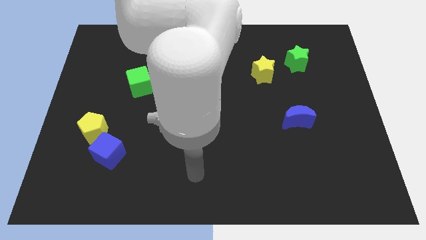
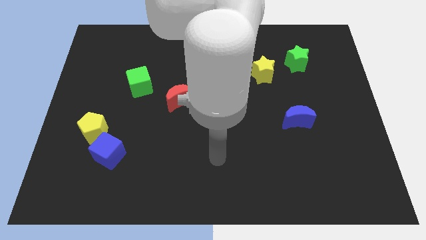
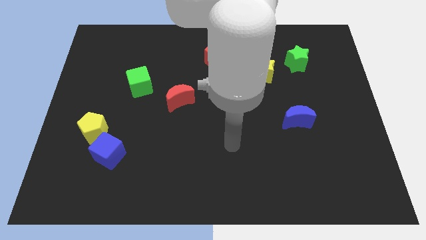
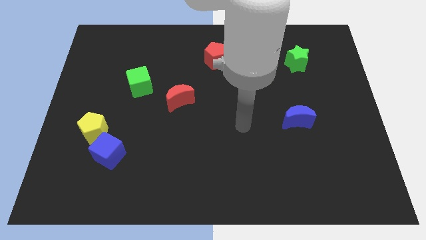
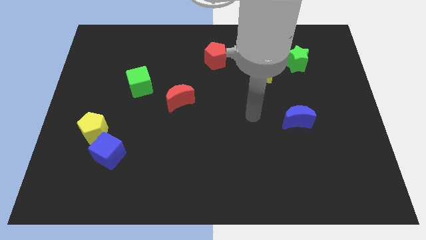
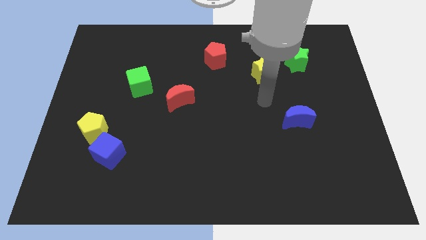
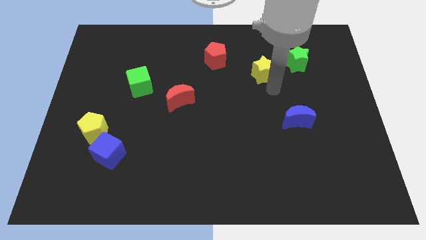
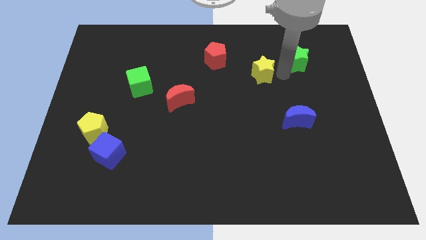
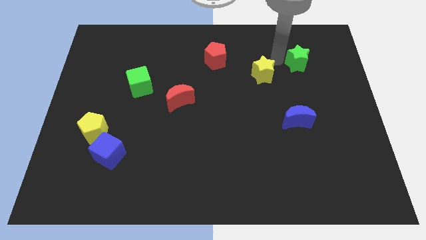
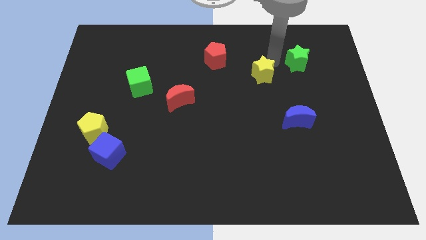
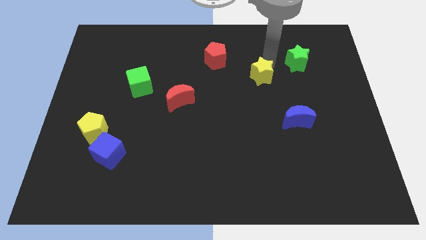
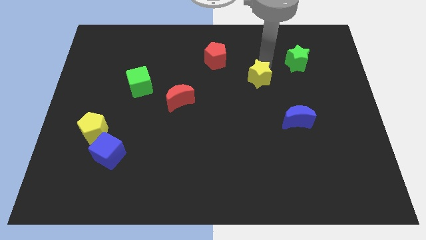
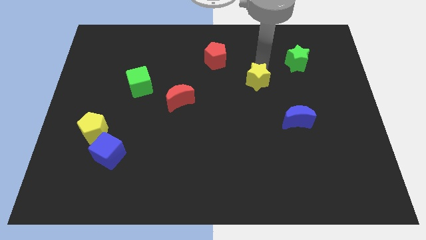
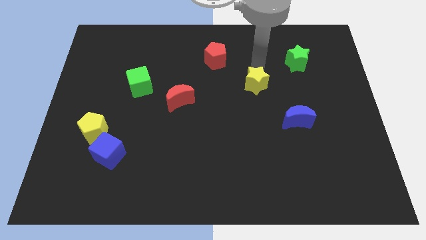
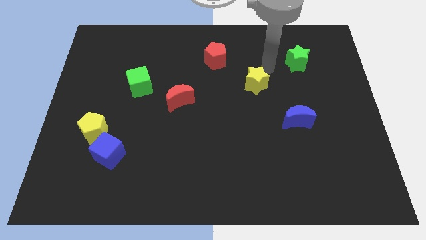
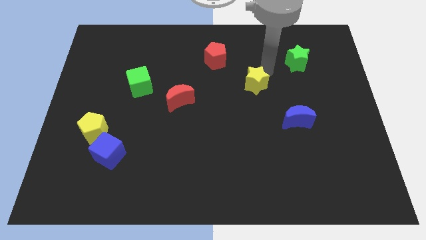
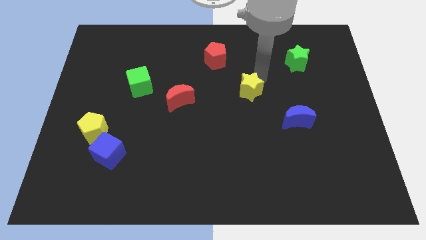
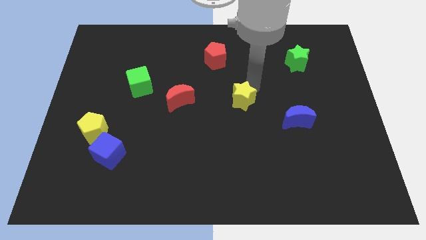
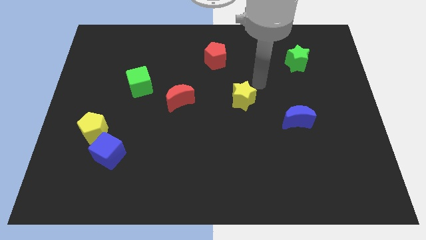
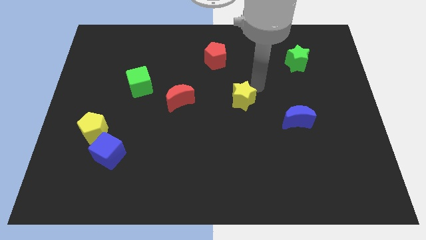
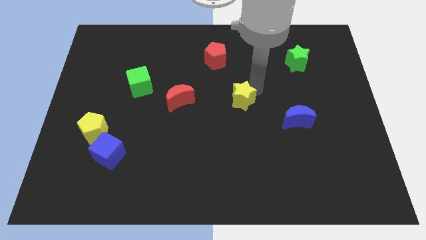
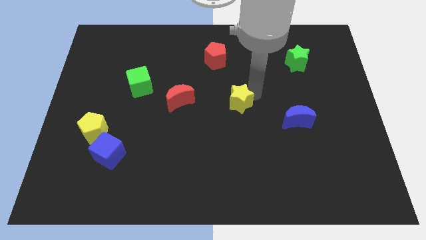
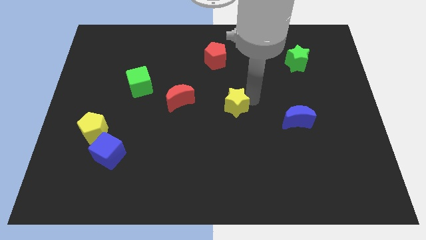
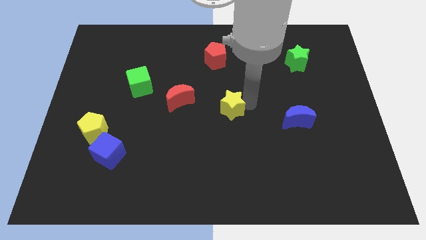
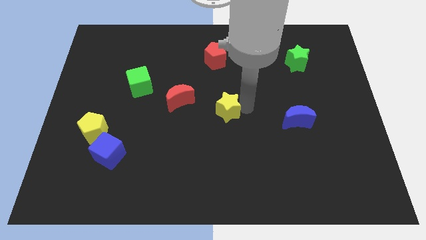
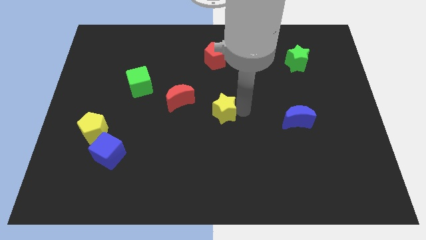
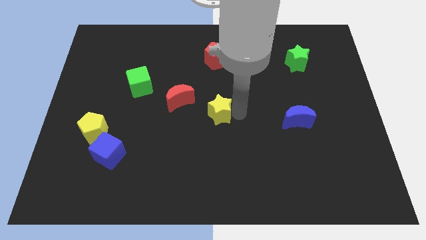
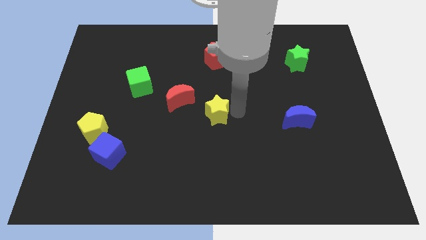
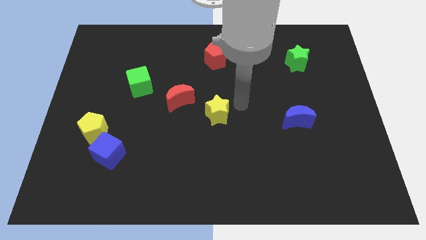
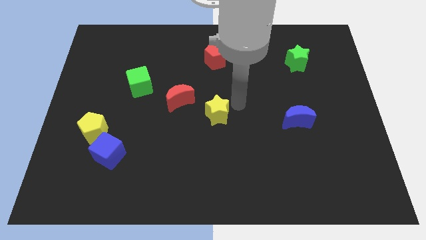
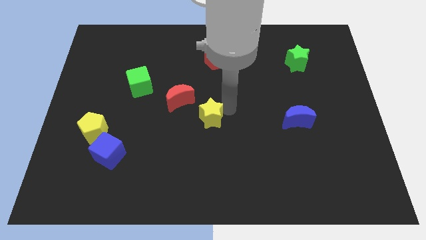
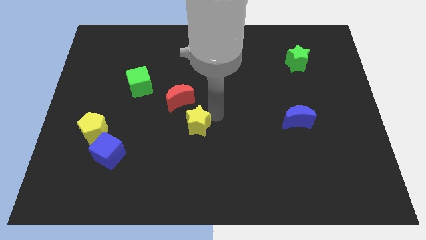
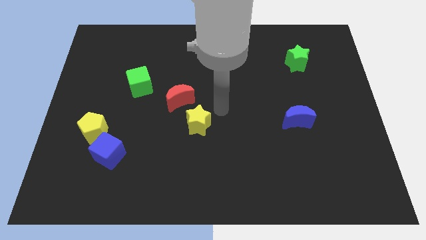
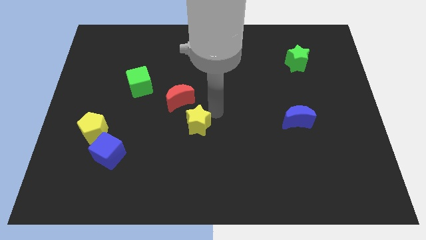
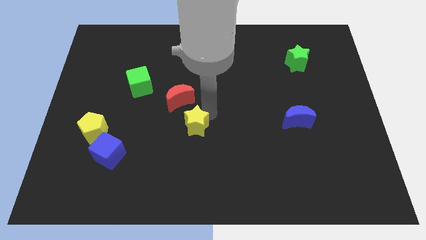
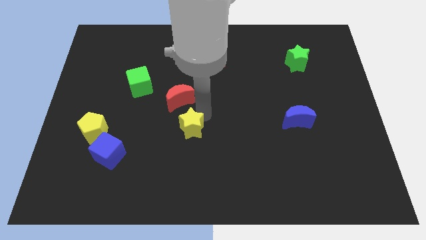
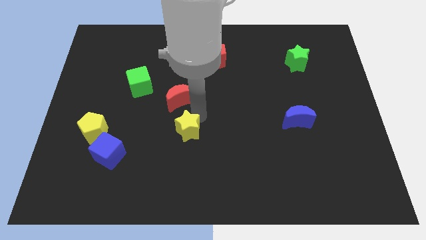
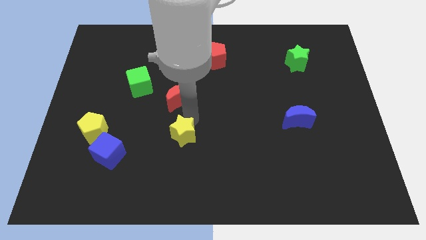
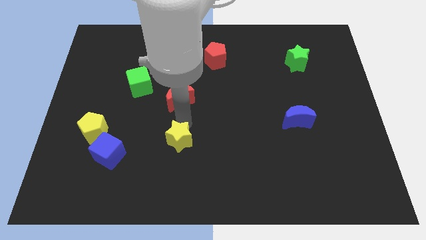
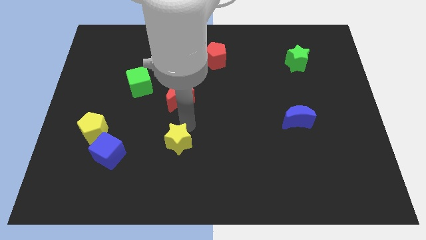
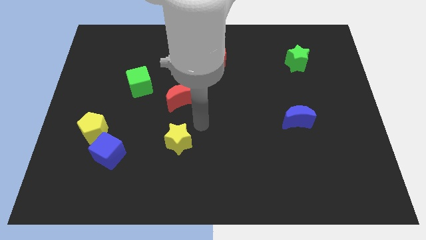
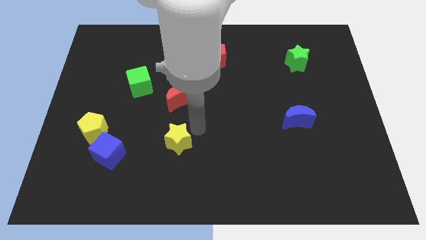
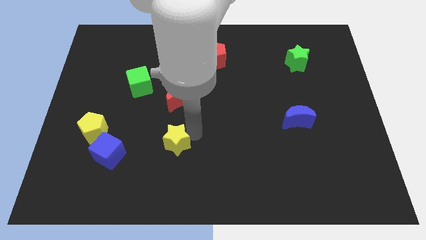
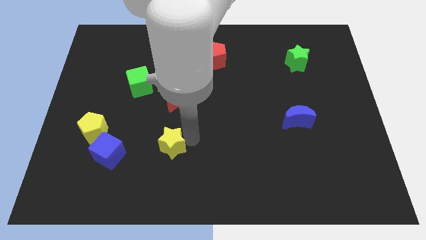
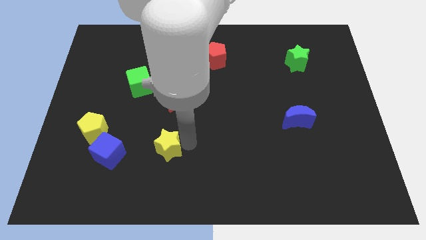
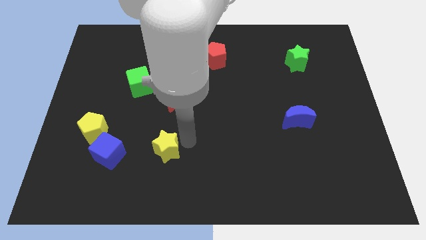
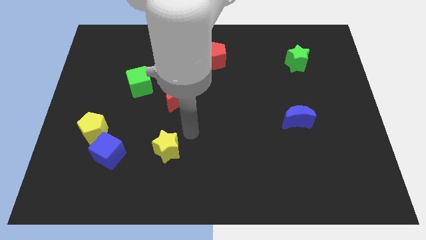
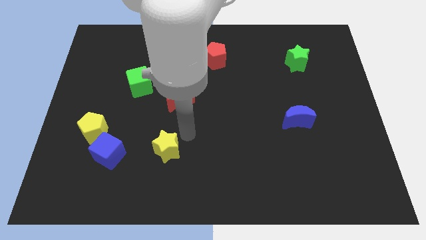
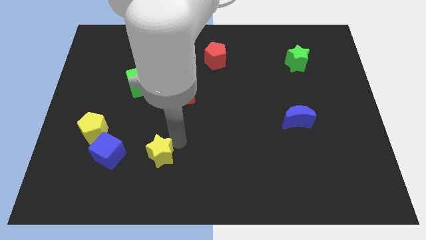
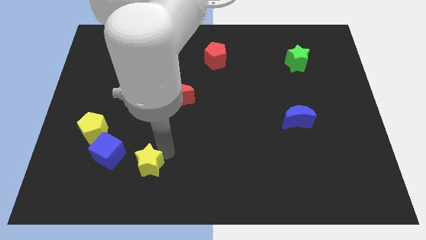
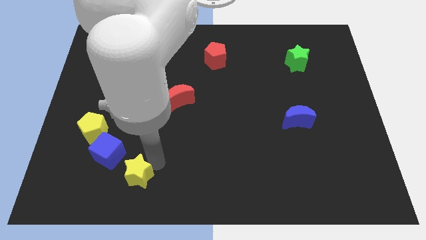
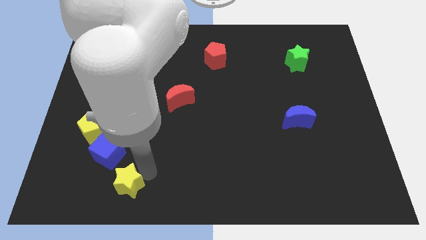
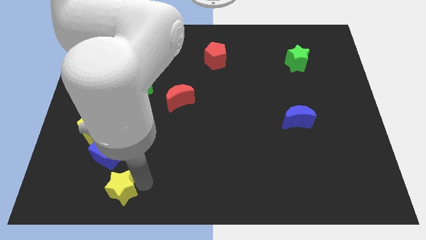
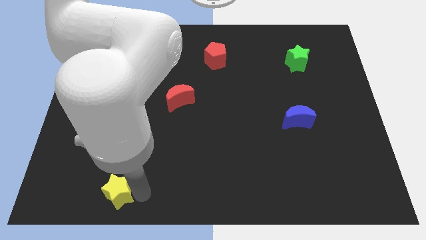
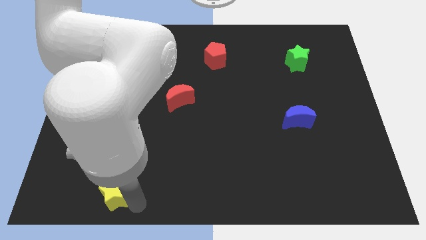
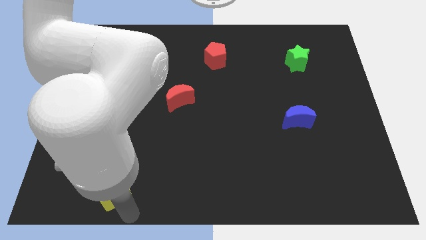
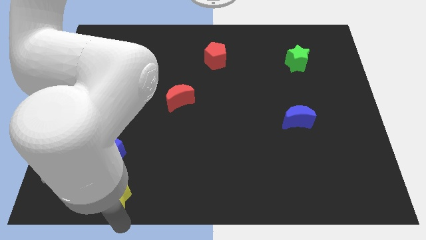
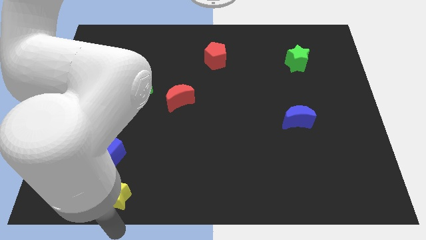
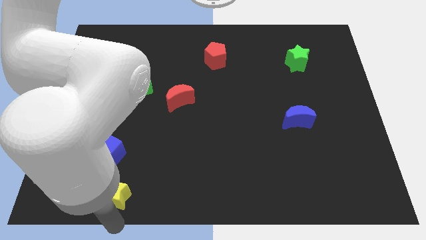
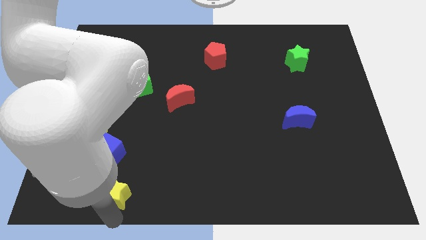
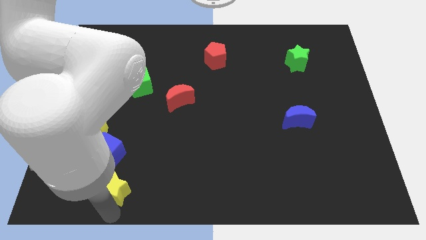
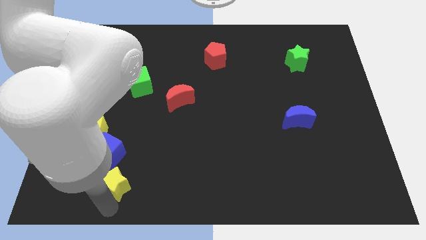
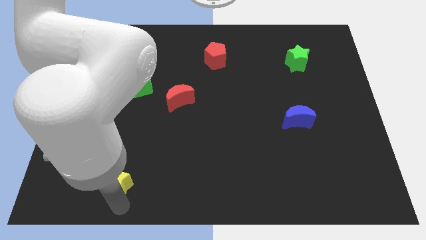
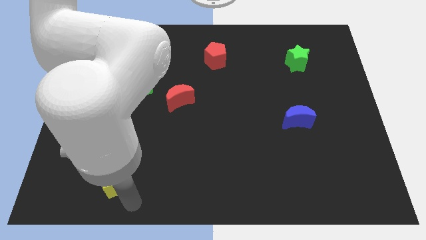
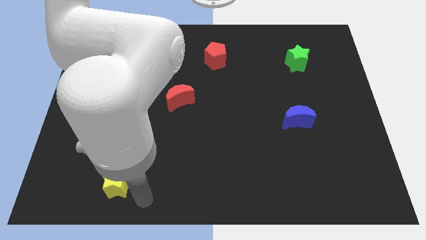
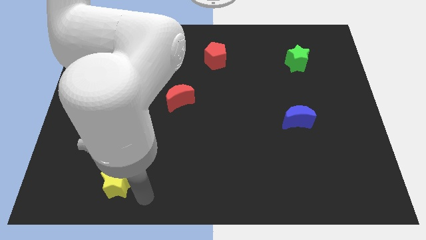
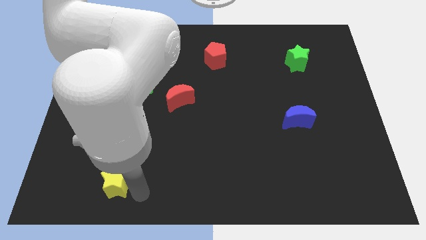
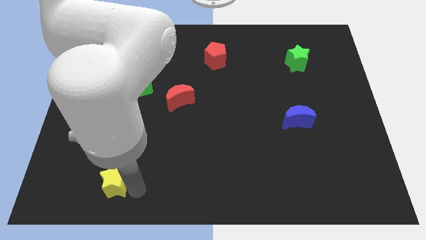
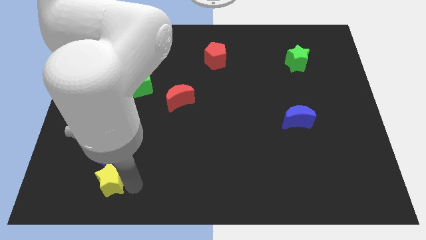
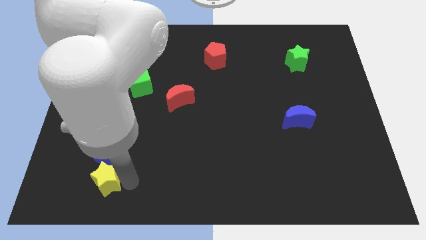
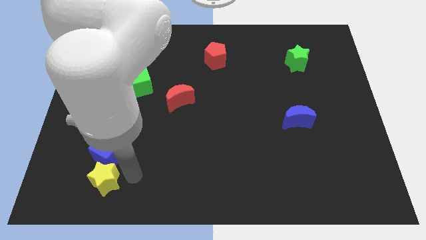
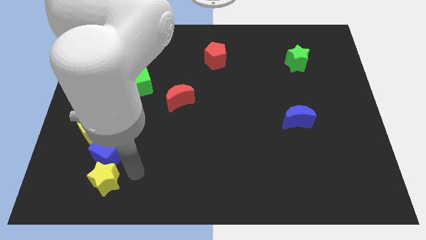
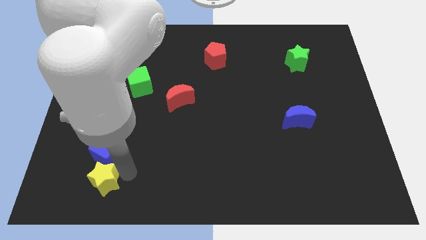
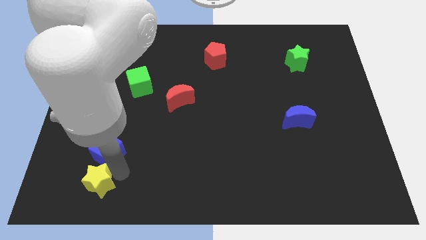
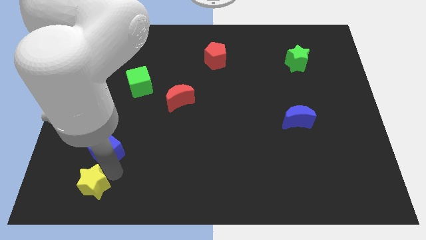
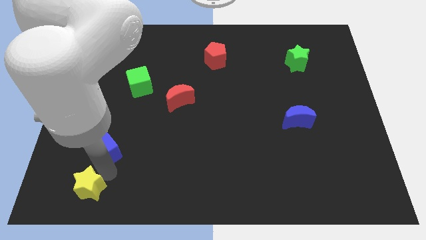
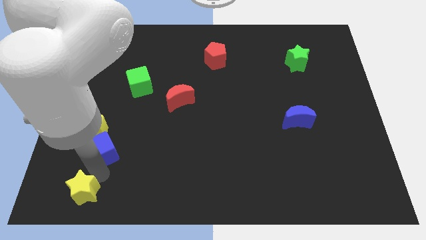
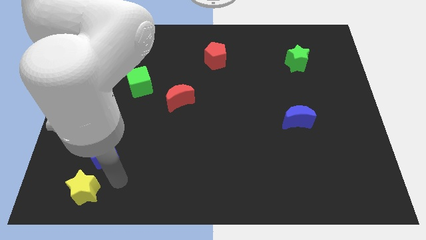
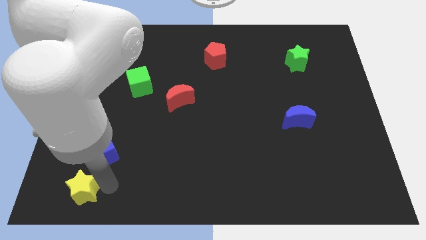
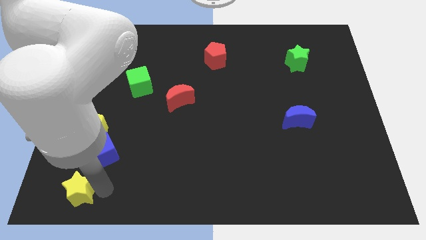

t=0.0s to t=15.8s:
put the yellow star to the bottom left

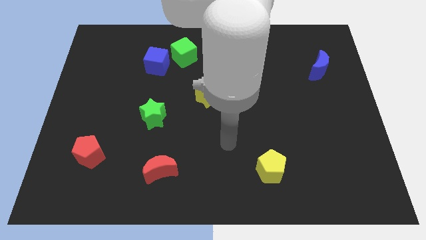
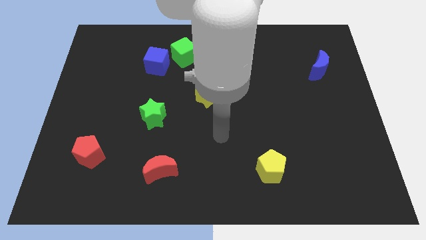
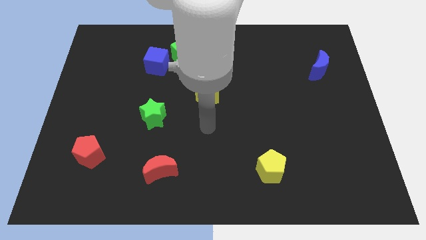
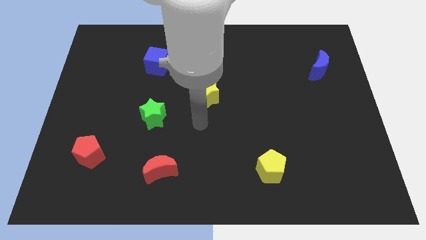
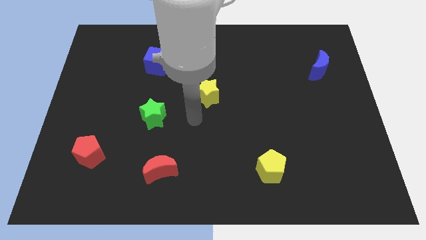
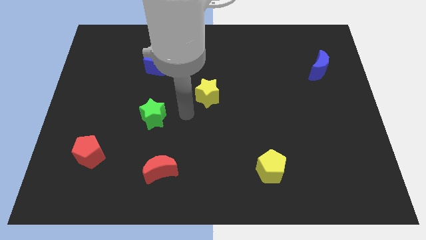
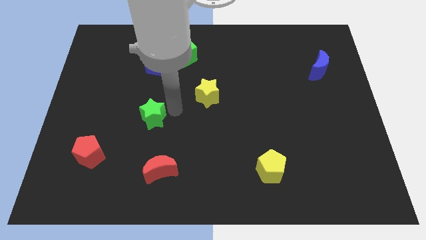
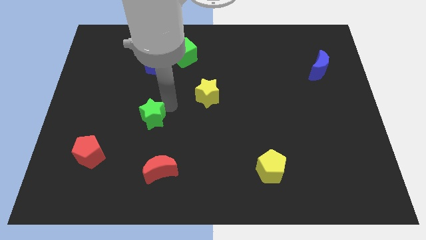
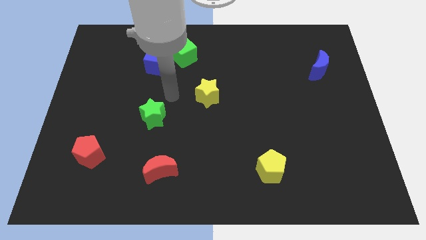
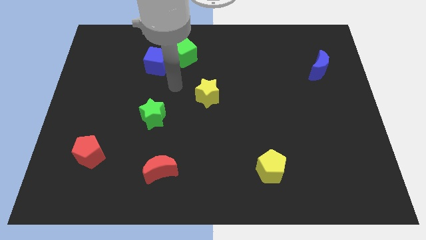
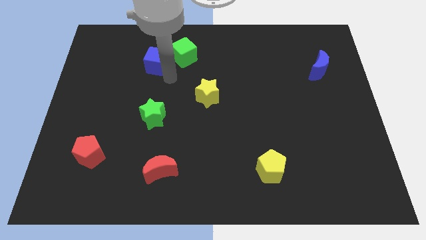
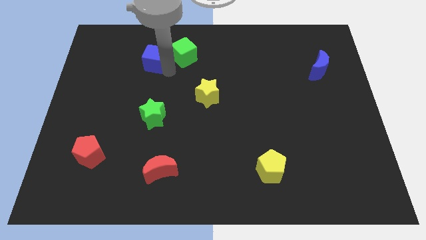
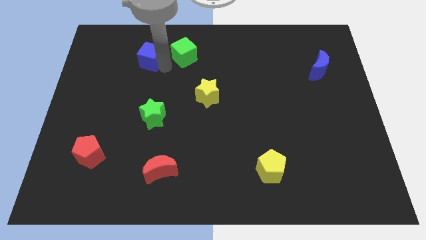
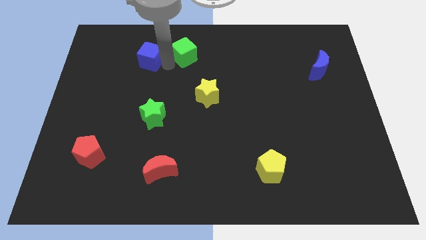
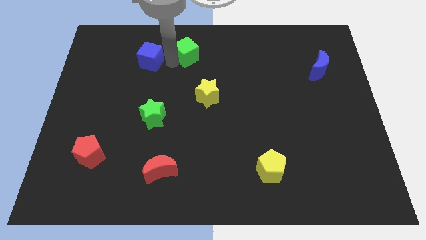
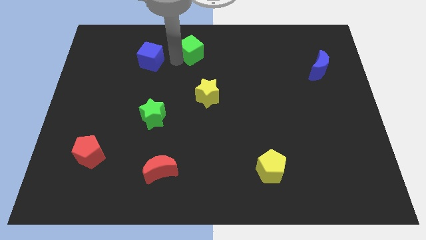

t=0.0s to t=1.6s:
move the green cube to the top
